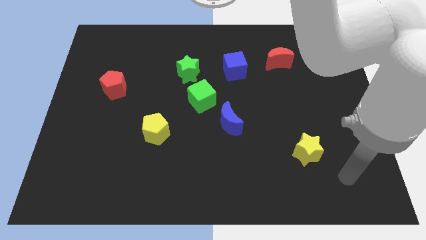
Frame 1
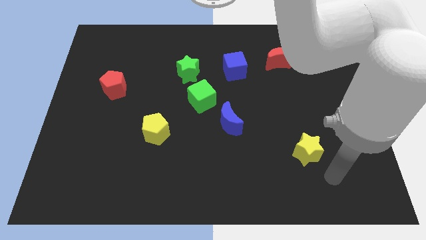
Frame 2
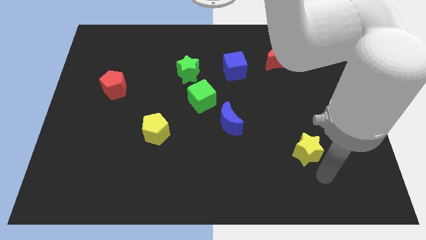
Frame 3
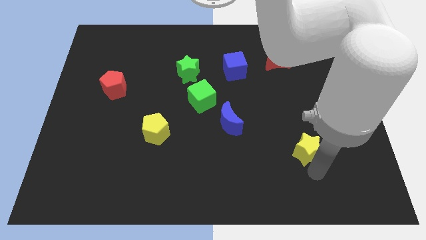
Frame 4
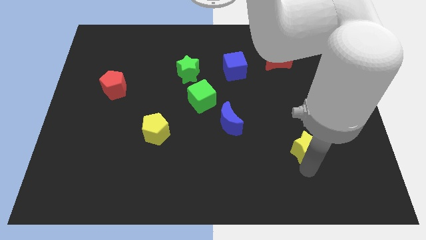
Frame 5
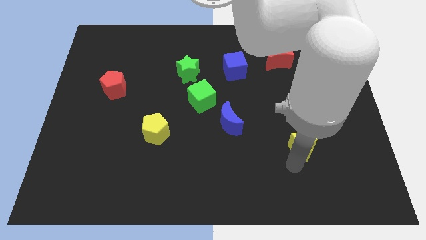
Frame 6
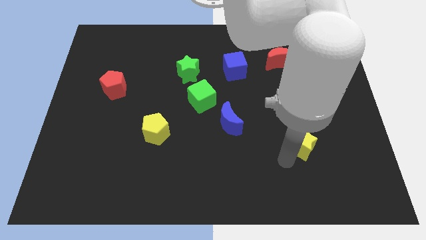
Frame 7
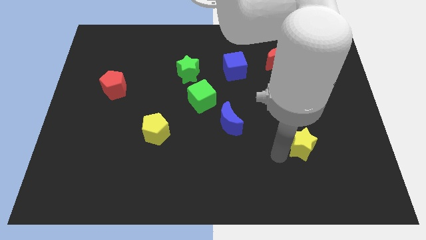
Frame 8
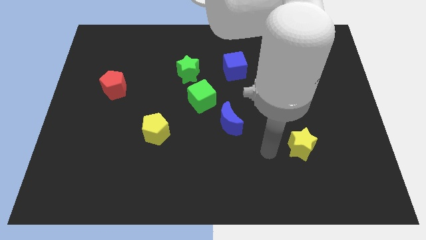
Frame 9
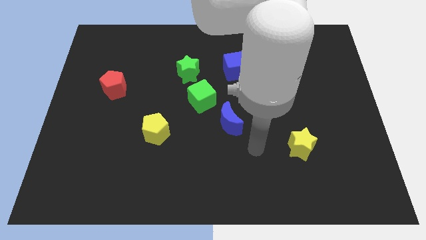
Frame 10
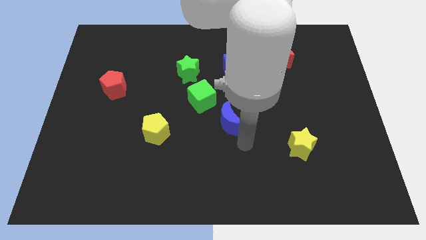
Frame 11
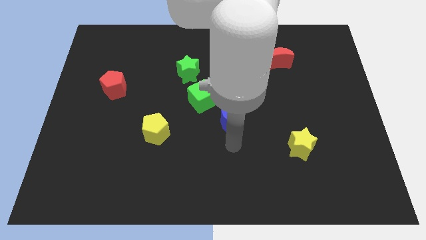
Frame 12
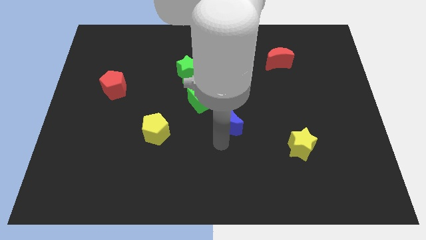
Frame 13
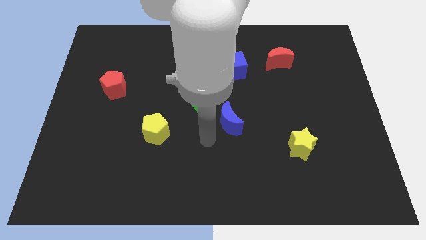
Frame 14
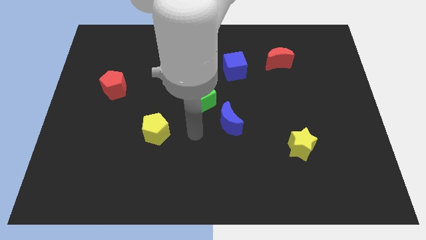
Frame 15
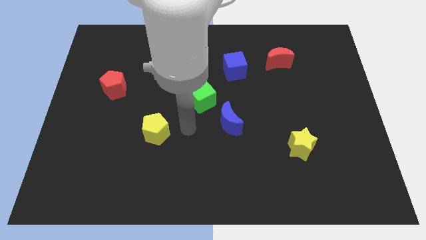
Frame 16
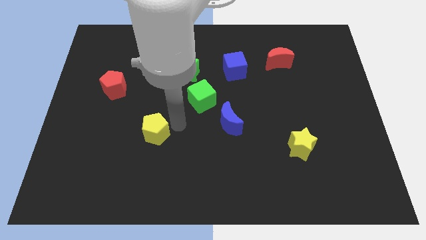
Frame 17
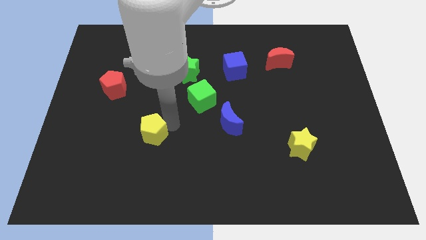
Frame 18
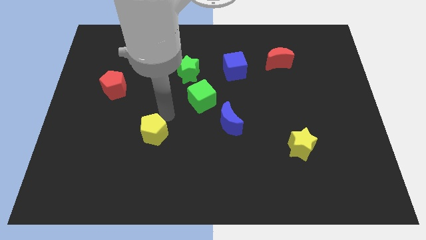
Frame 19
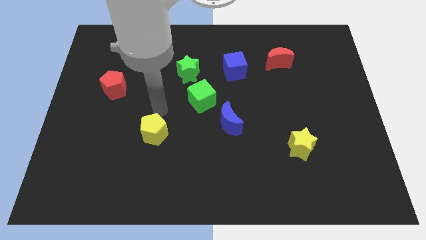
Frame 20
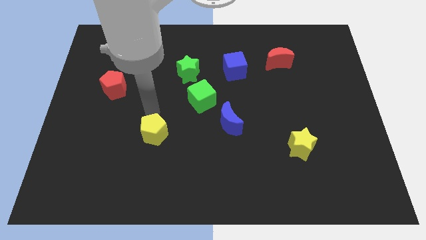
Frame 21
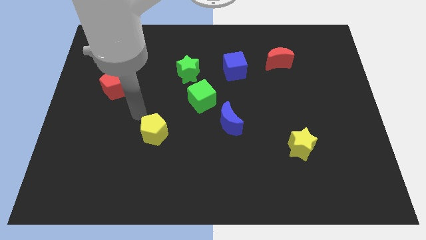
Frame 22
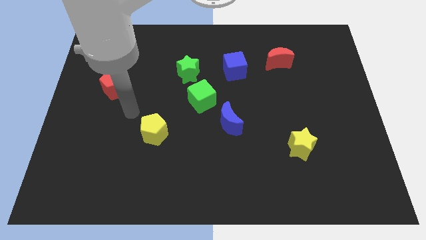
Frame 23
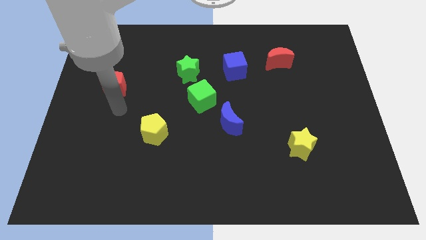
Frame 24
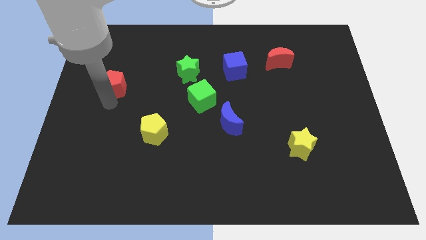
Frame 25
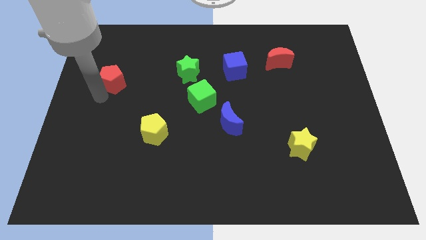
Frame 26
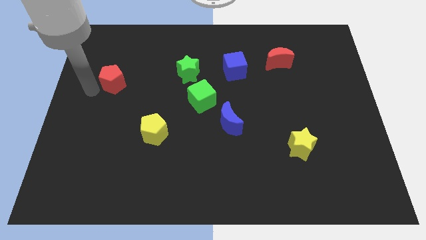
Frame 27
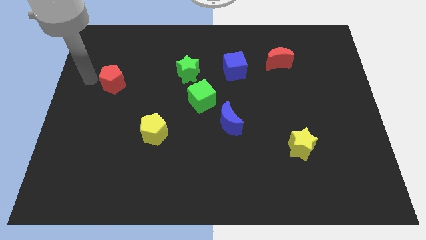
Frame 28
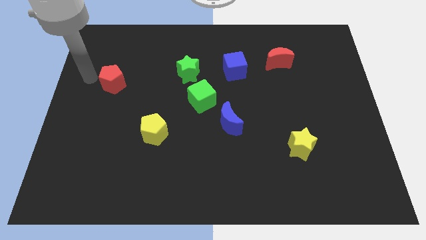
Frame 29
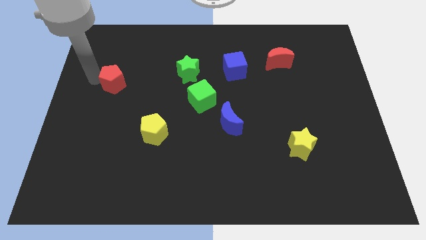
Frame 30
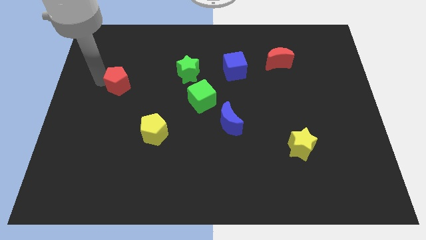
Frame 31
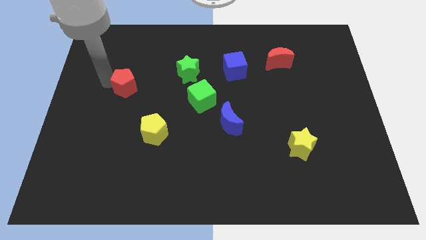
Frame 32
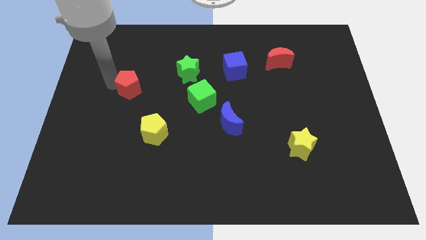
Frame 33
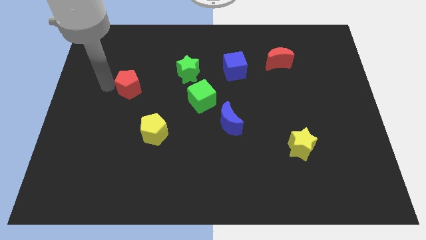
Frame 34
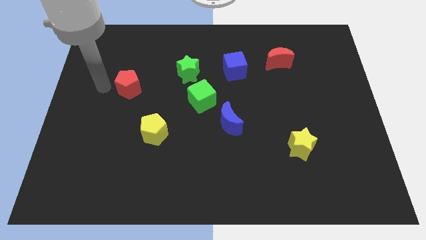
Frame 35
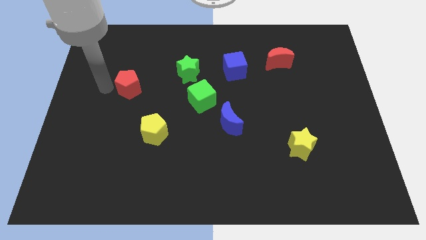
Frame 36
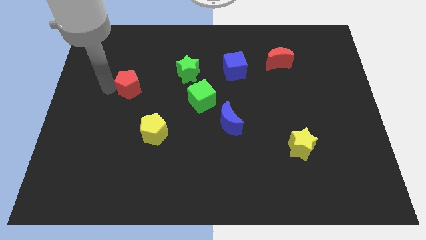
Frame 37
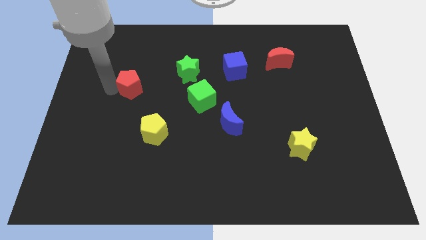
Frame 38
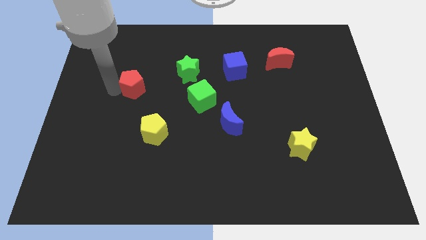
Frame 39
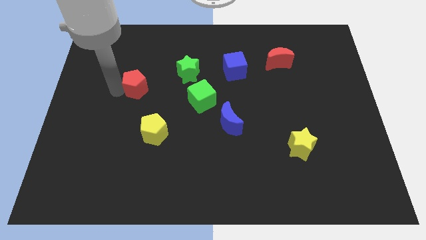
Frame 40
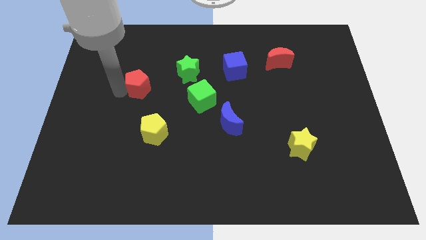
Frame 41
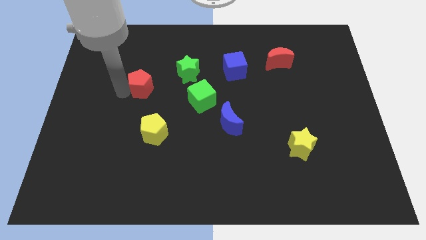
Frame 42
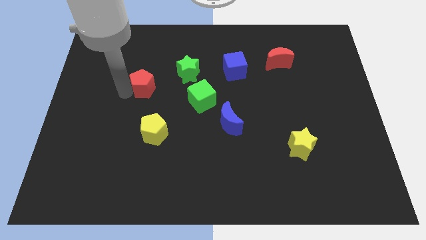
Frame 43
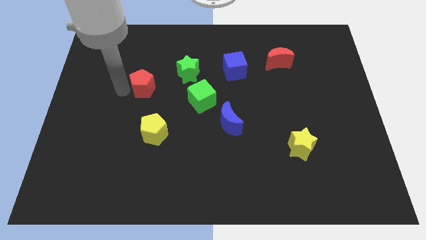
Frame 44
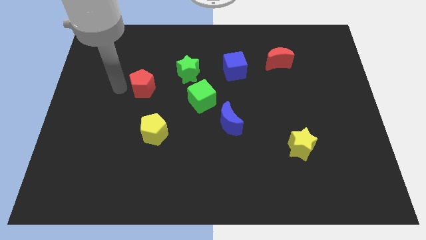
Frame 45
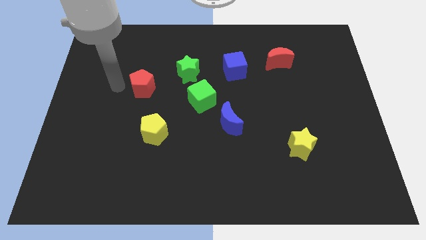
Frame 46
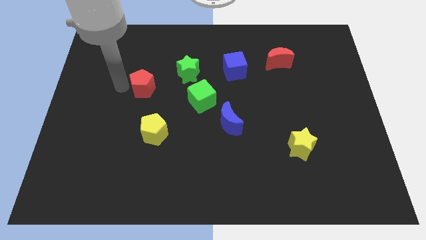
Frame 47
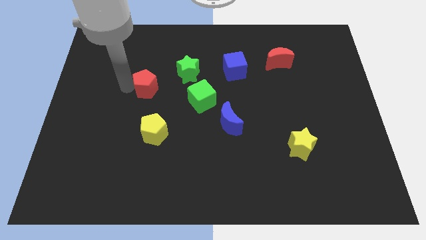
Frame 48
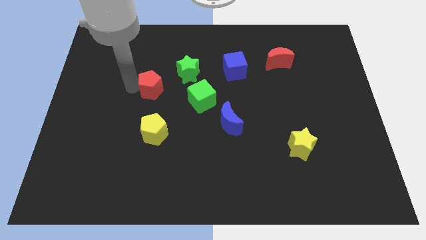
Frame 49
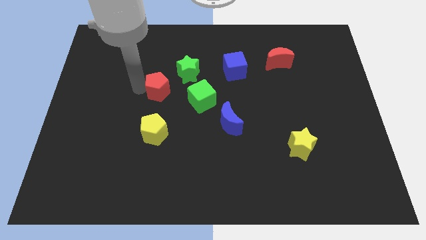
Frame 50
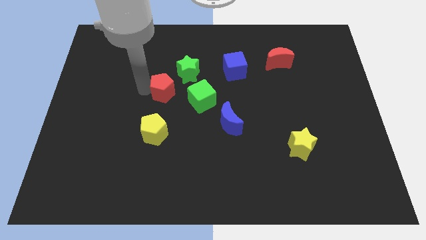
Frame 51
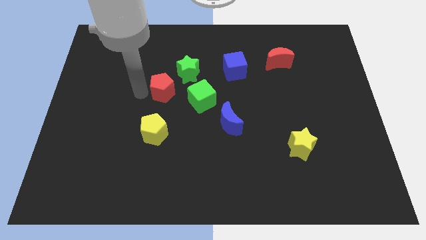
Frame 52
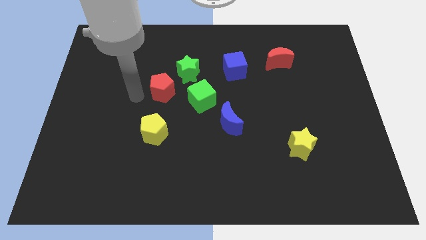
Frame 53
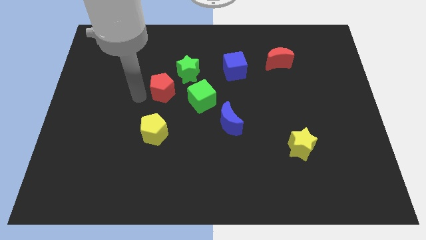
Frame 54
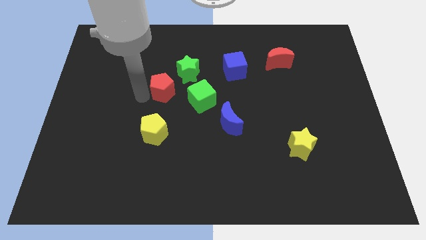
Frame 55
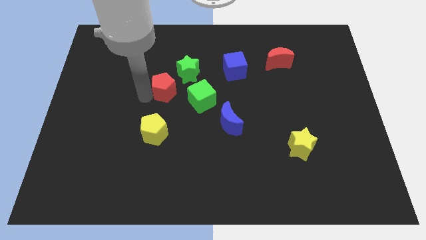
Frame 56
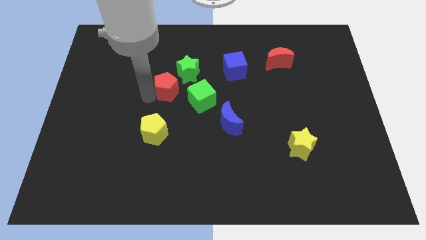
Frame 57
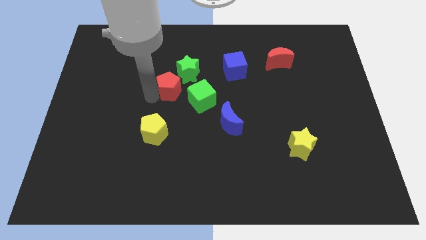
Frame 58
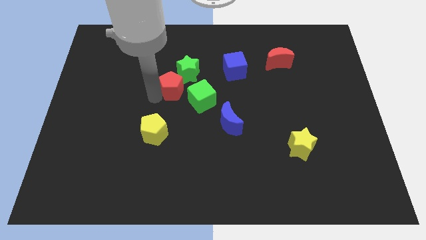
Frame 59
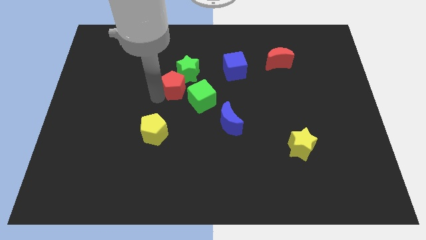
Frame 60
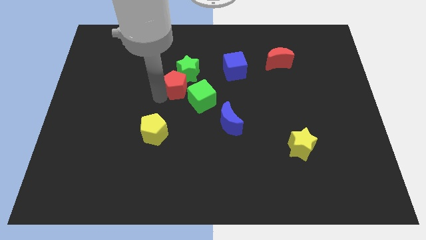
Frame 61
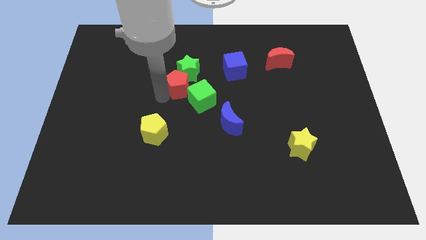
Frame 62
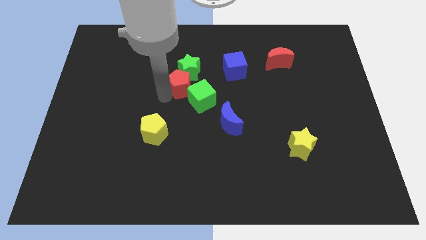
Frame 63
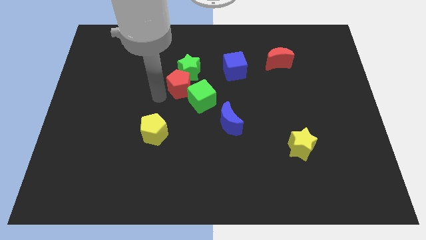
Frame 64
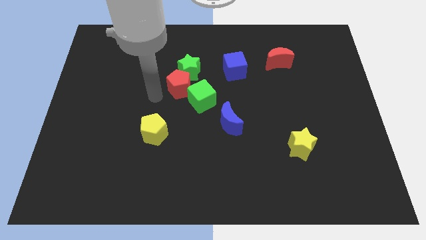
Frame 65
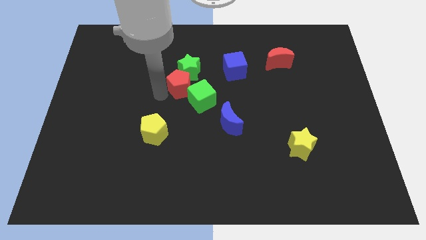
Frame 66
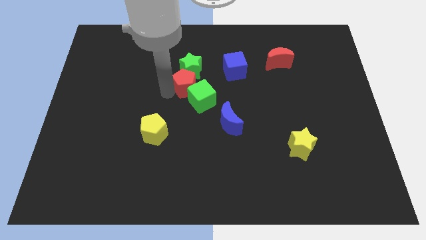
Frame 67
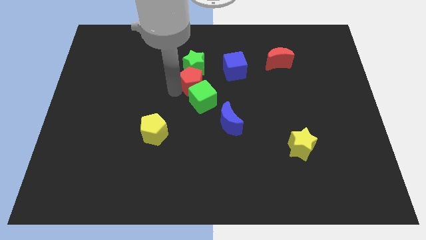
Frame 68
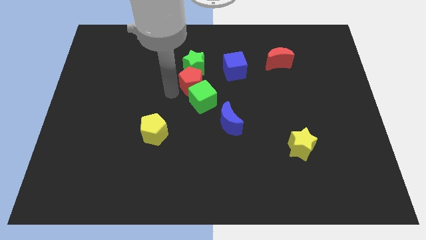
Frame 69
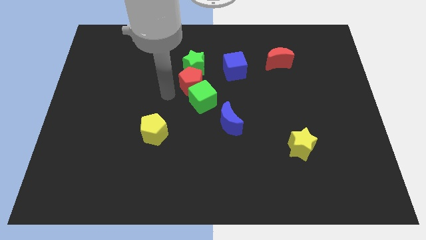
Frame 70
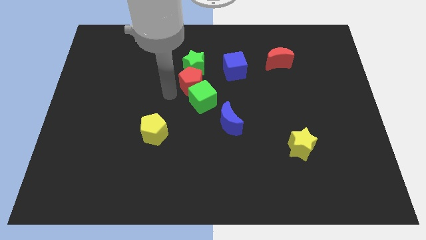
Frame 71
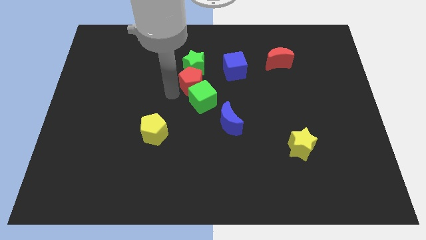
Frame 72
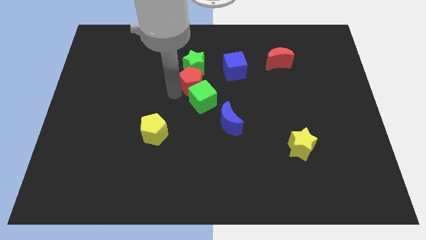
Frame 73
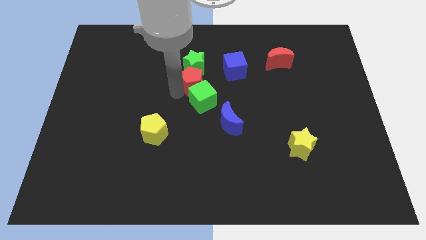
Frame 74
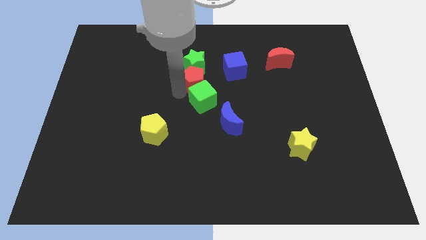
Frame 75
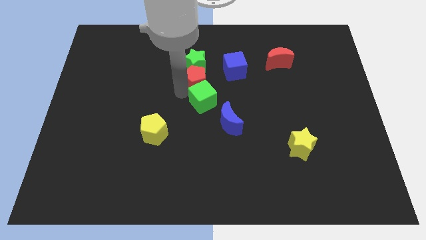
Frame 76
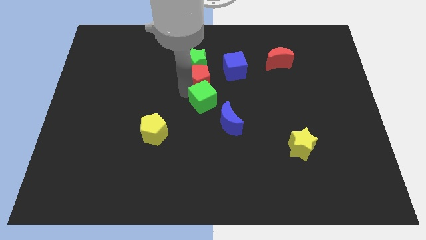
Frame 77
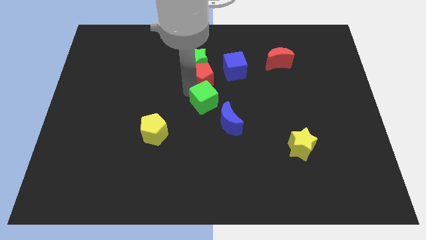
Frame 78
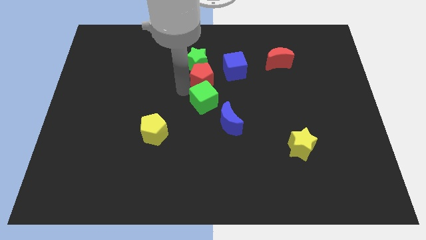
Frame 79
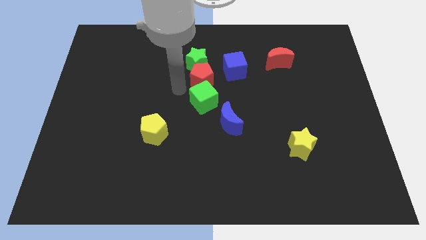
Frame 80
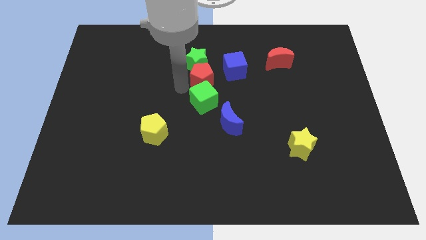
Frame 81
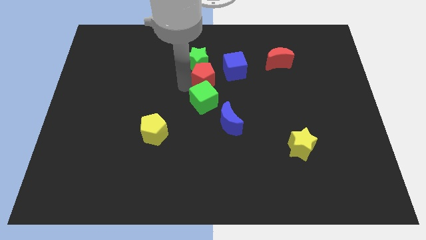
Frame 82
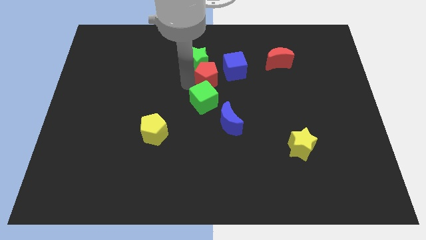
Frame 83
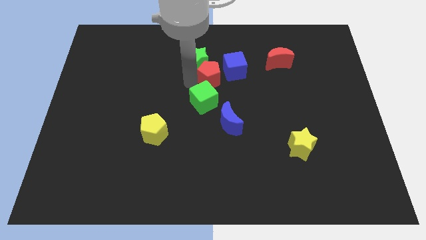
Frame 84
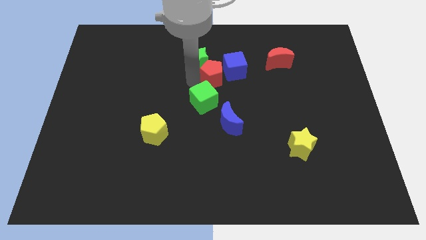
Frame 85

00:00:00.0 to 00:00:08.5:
move the red pentagon to the blue cube
